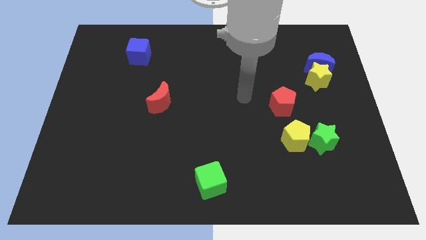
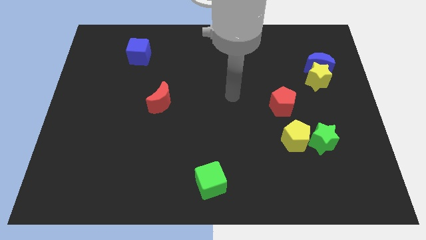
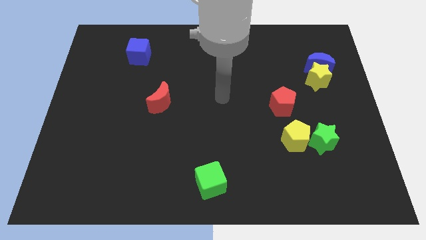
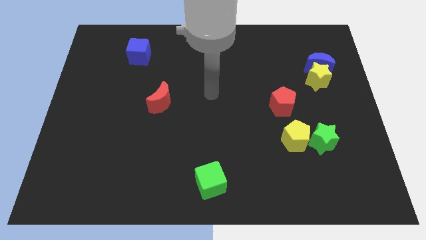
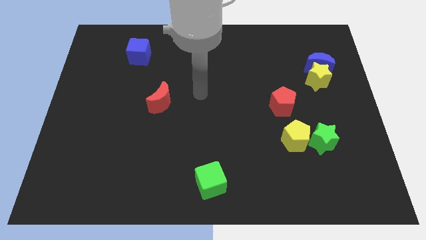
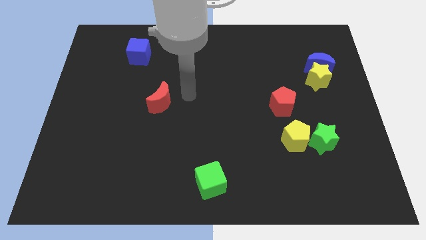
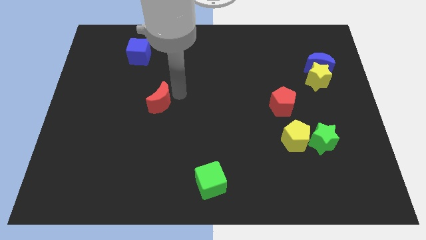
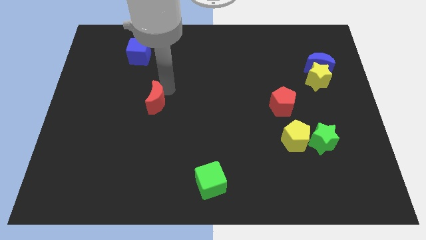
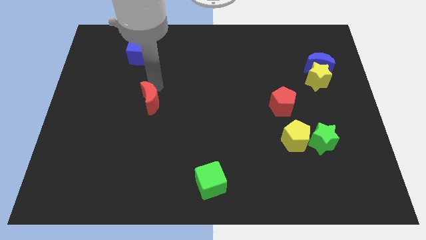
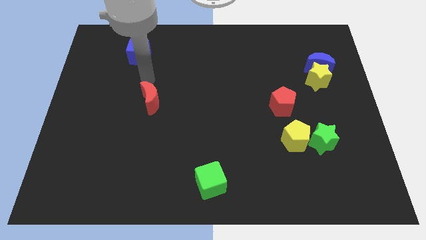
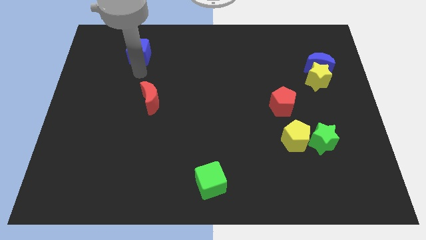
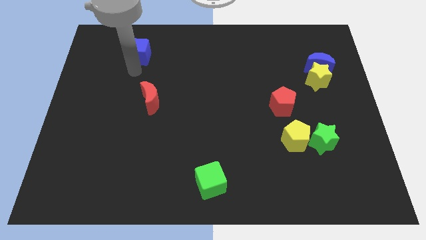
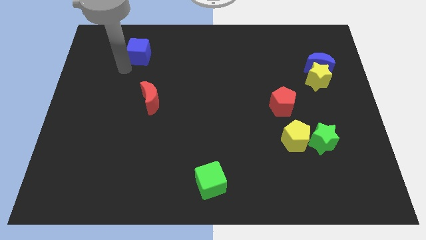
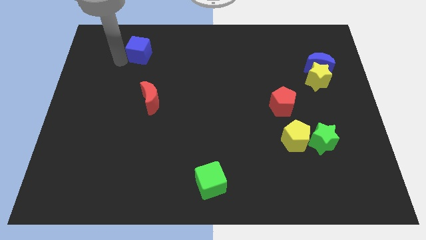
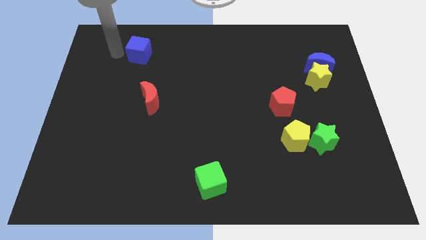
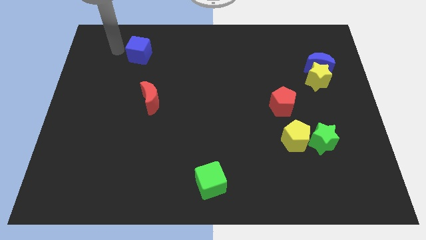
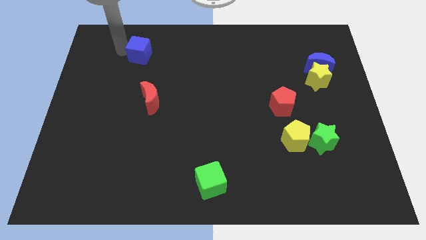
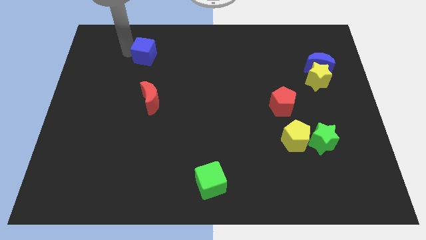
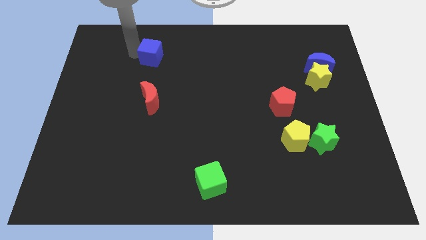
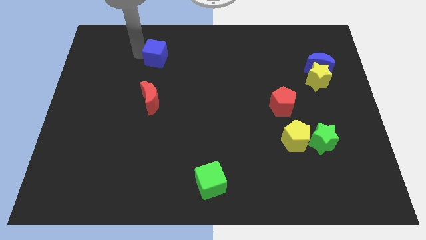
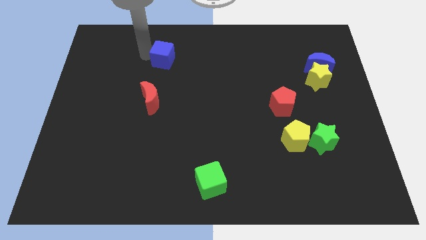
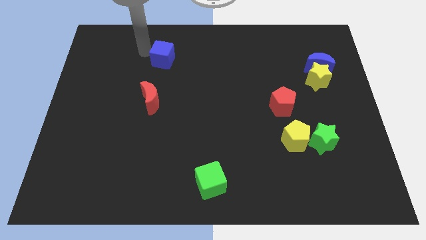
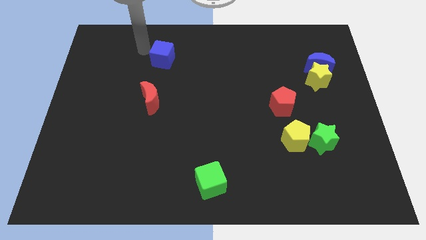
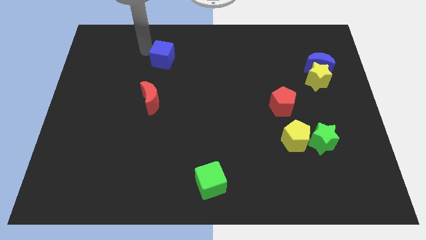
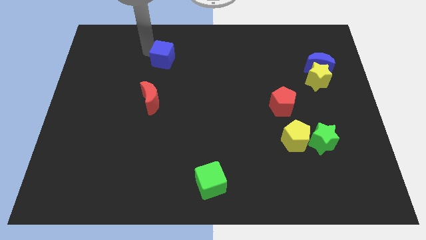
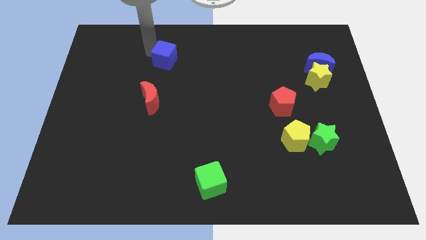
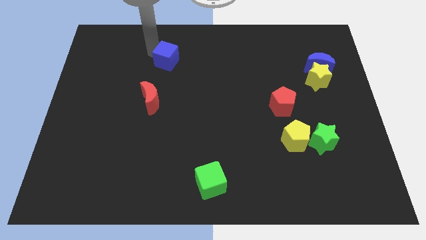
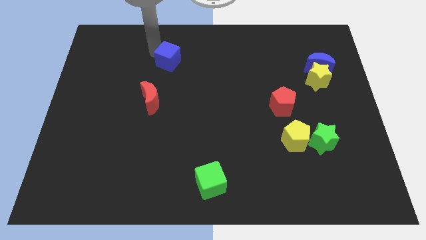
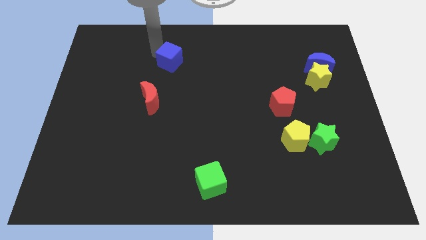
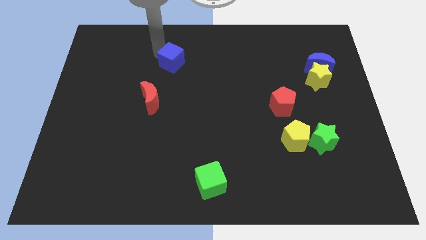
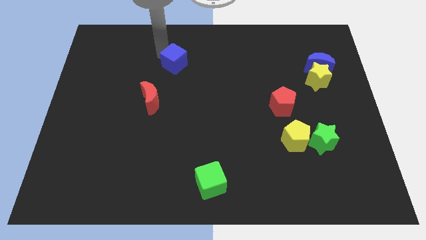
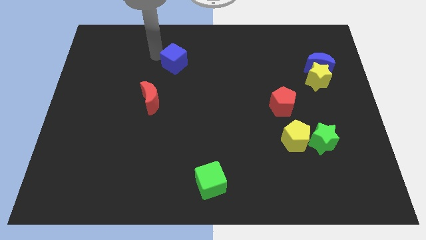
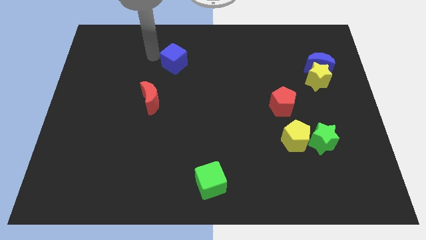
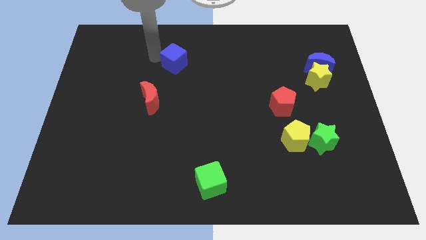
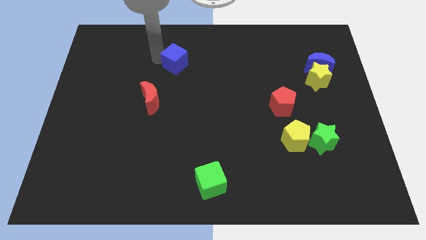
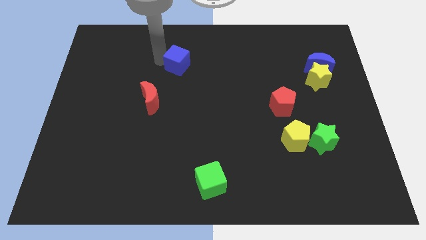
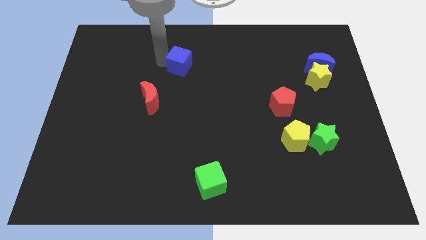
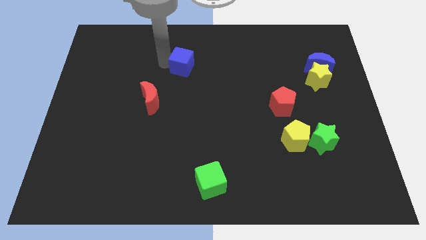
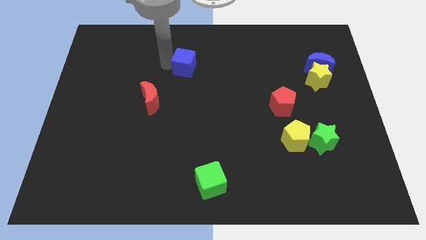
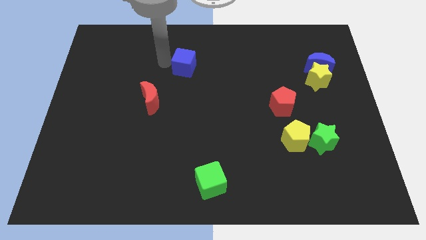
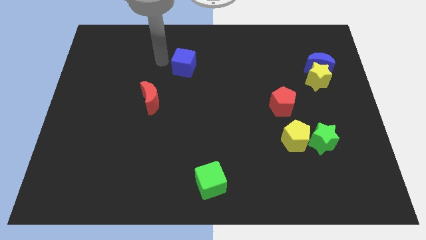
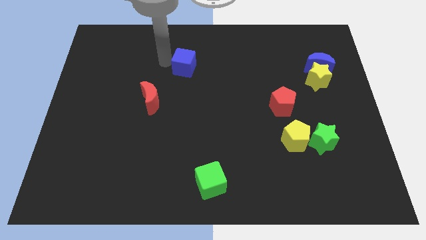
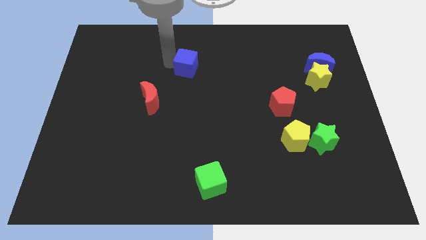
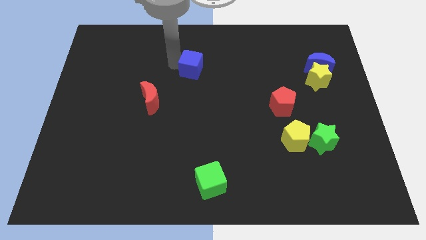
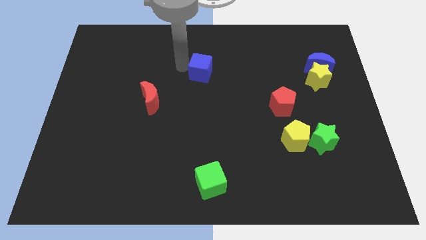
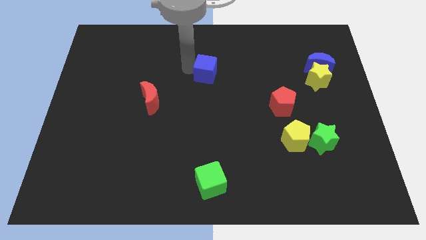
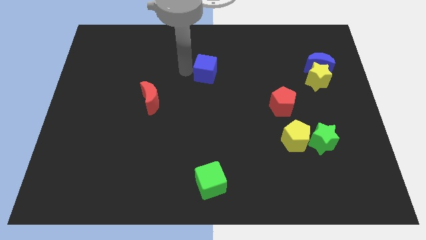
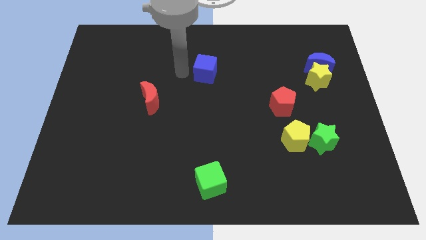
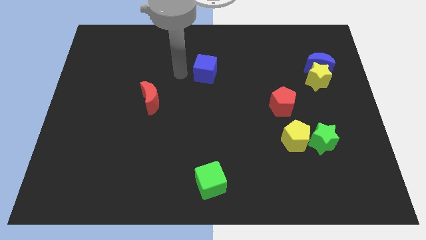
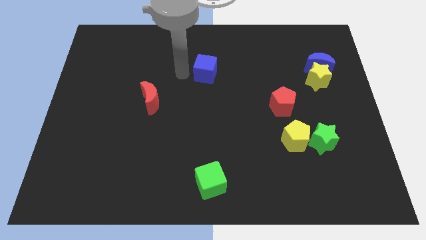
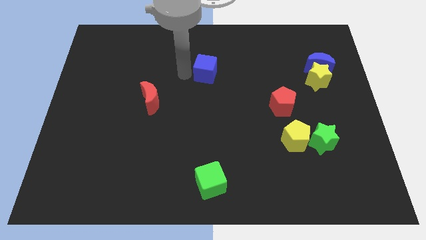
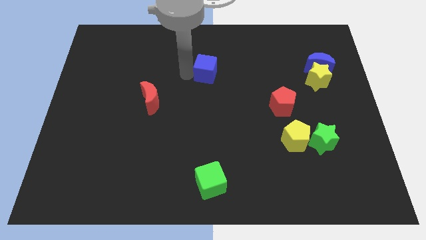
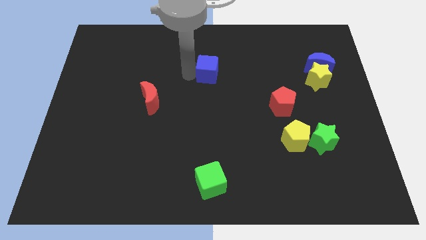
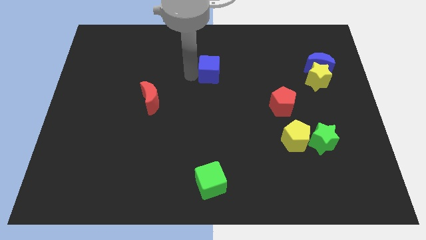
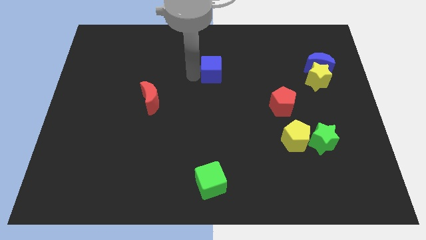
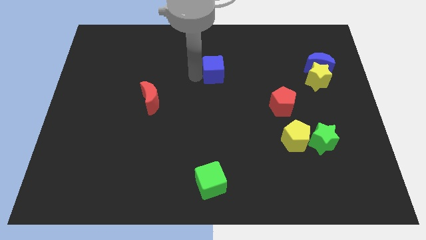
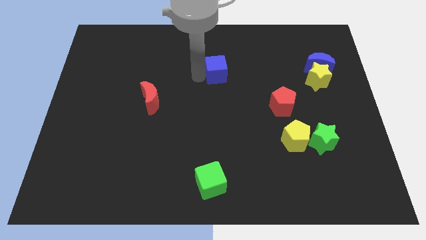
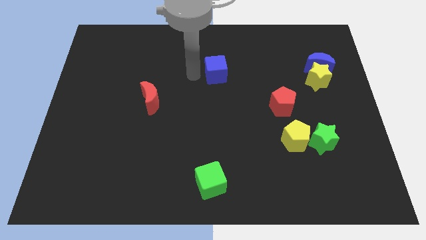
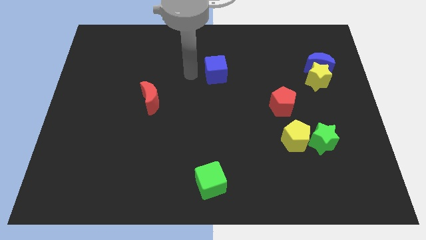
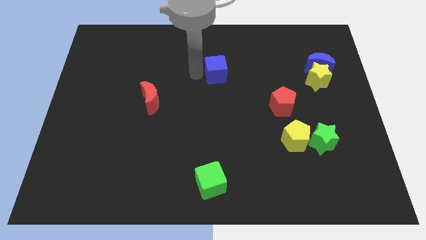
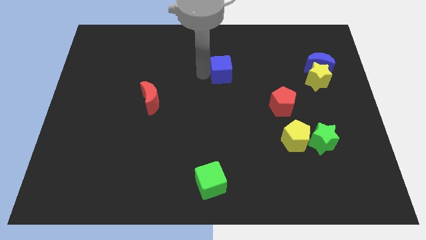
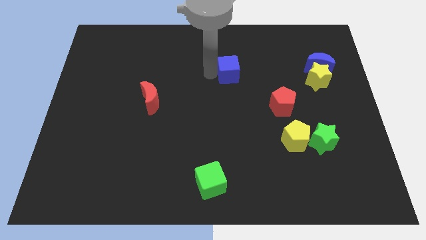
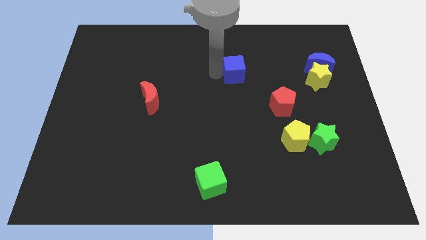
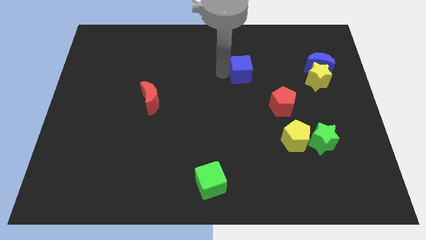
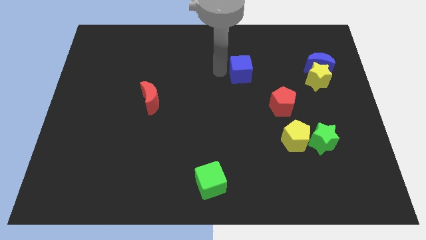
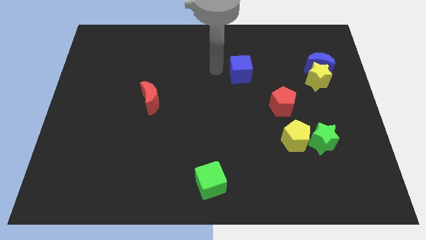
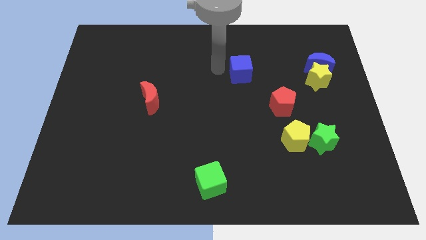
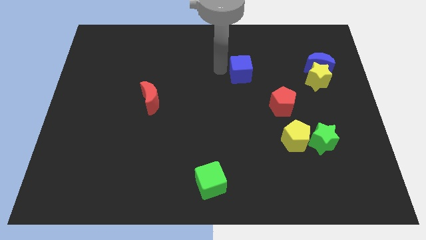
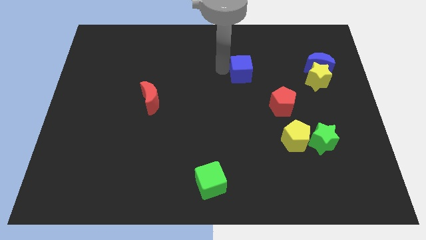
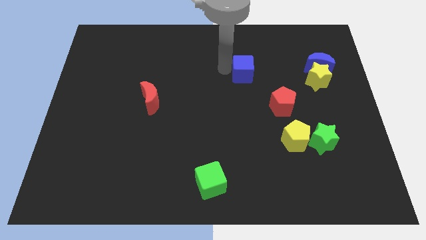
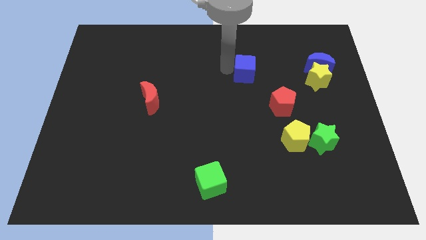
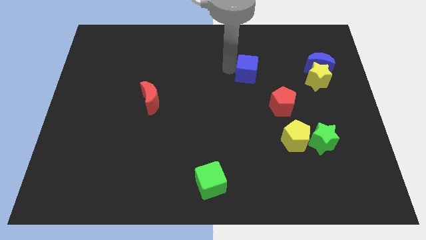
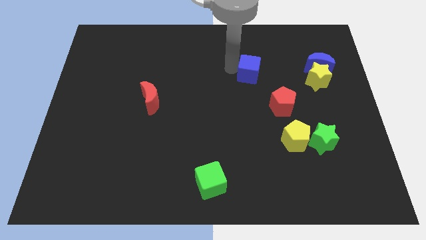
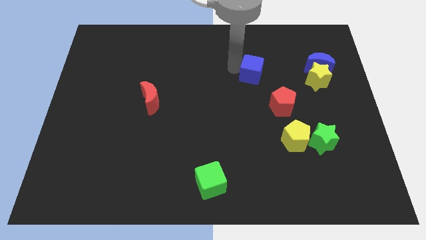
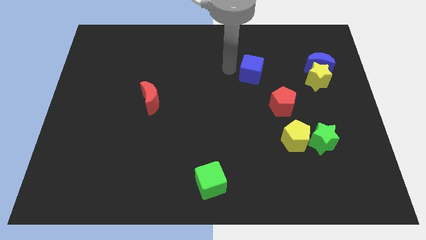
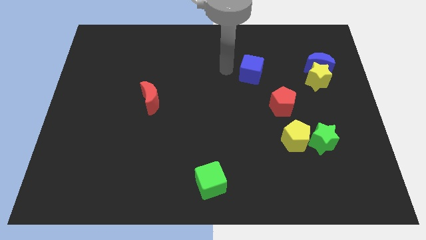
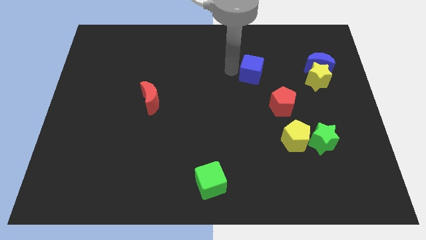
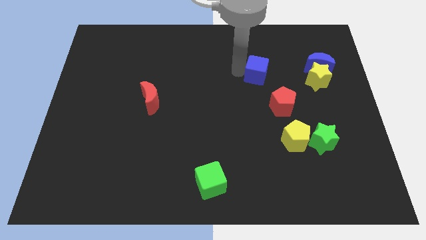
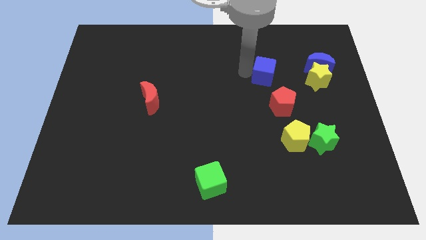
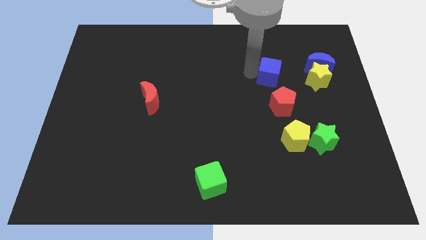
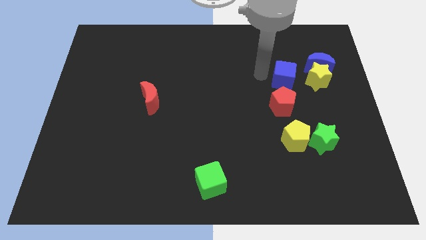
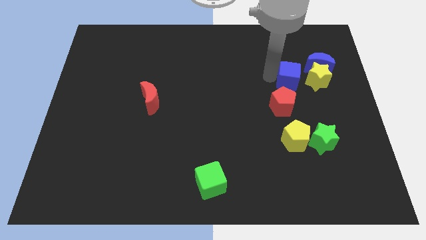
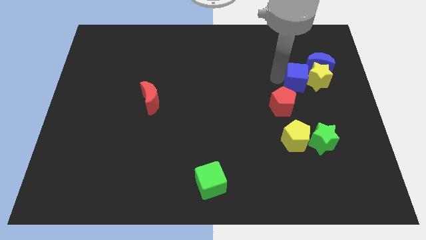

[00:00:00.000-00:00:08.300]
move the blue cube towards the yellow star
